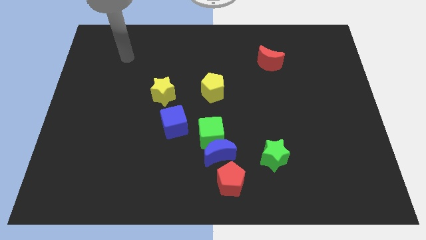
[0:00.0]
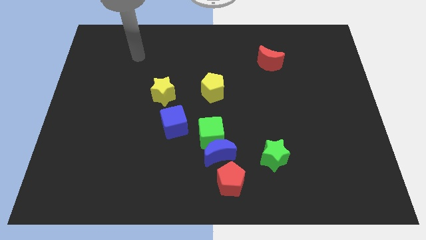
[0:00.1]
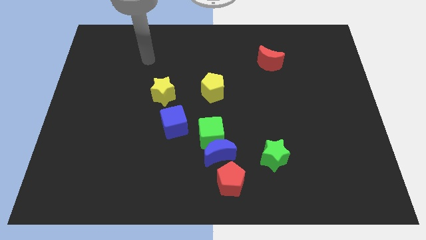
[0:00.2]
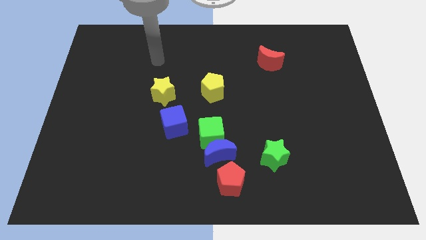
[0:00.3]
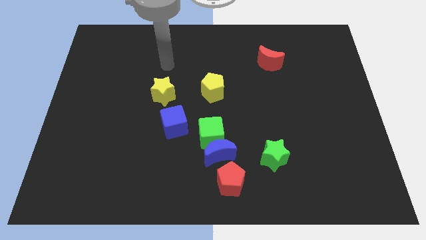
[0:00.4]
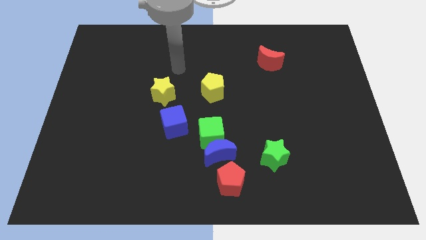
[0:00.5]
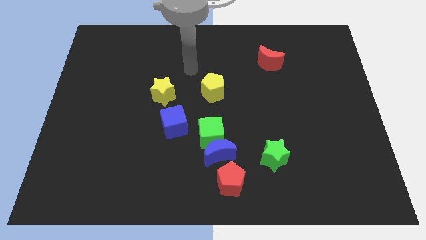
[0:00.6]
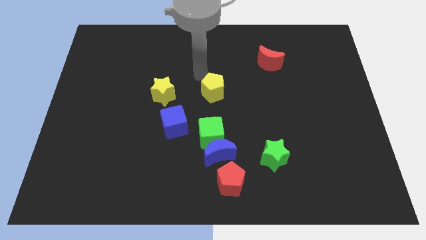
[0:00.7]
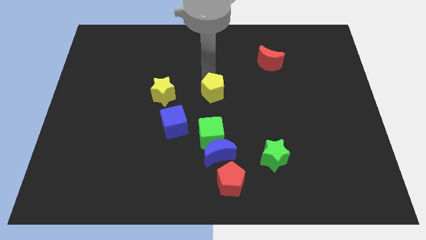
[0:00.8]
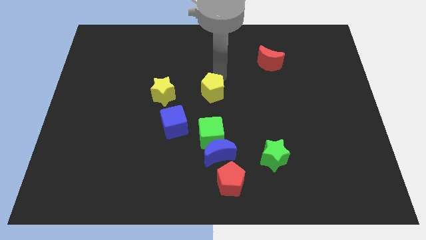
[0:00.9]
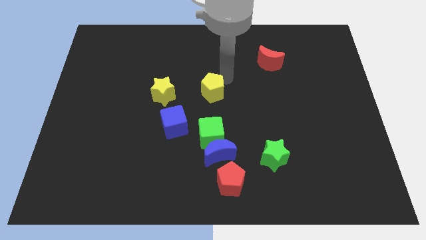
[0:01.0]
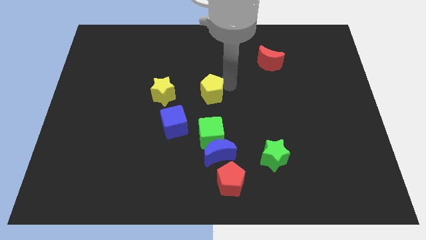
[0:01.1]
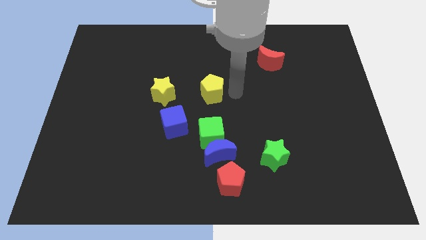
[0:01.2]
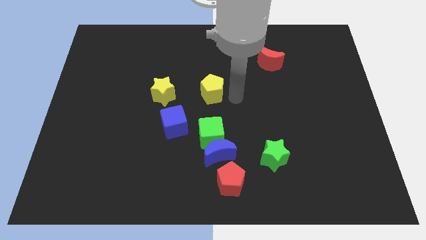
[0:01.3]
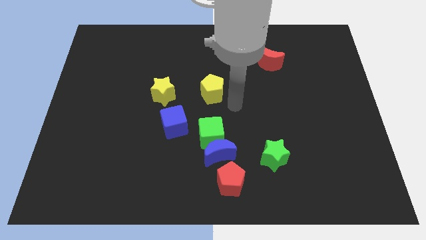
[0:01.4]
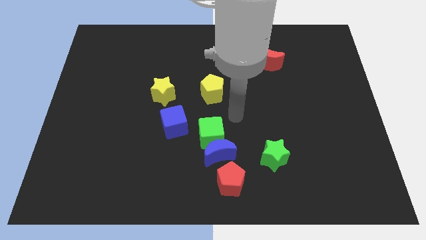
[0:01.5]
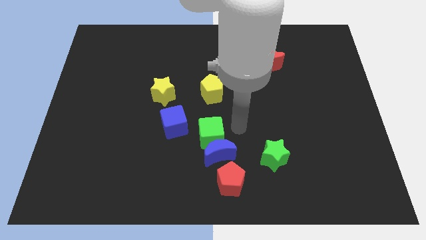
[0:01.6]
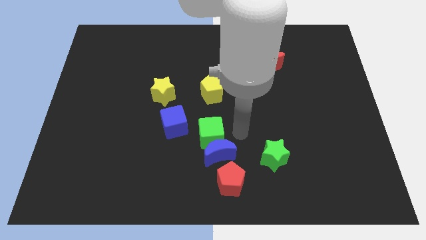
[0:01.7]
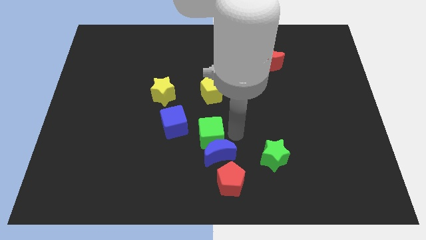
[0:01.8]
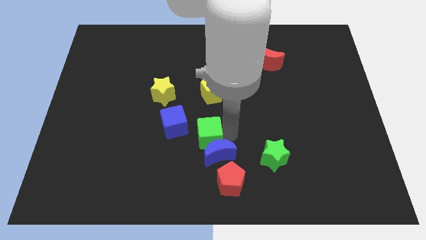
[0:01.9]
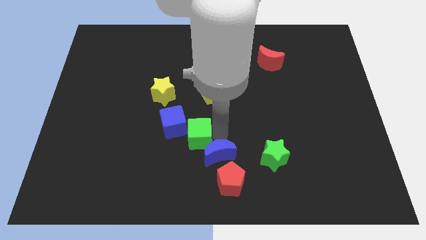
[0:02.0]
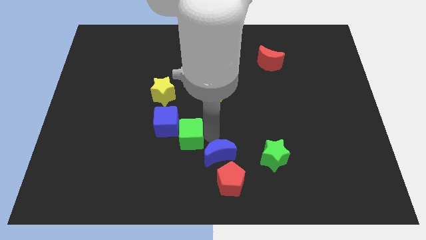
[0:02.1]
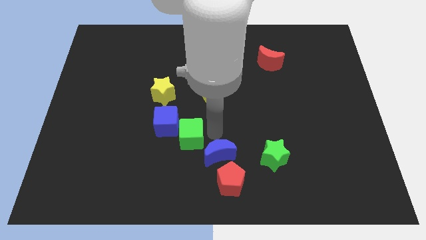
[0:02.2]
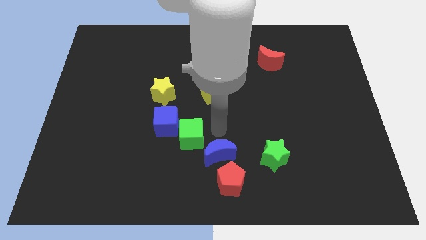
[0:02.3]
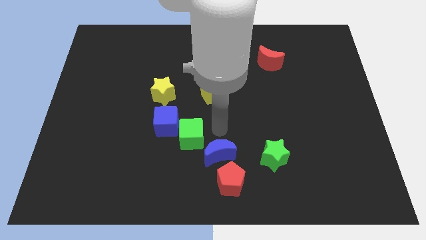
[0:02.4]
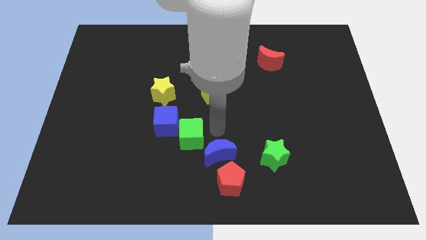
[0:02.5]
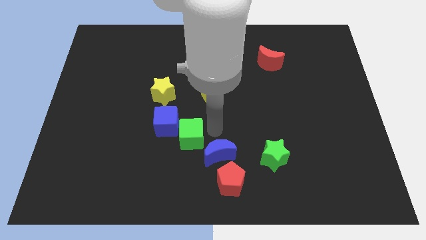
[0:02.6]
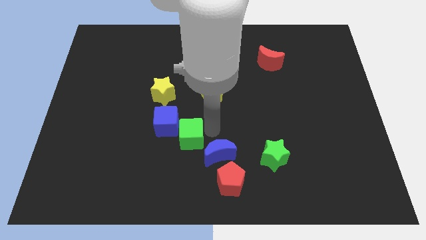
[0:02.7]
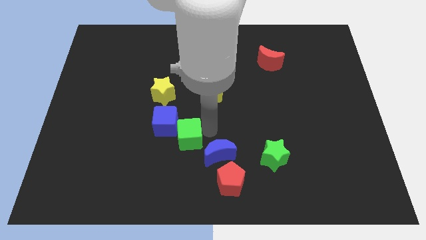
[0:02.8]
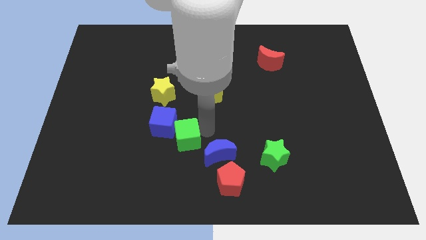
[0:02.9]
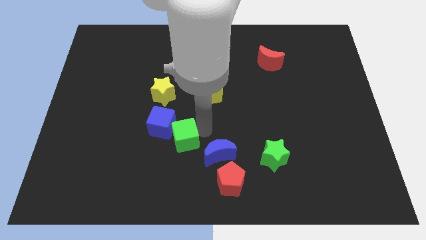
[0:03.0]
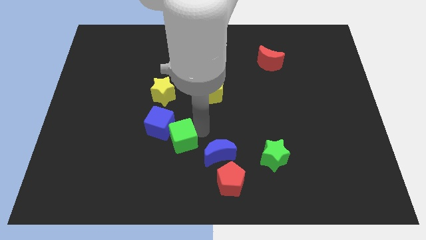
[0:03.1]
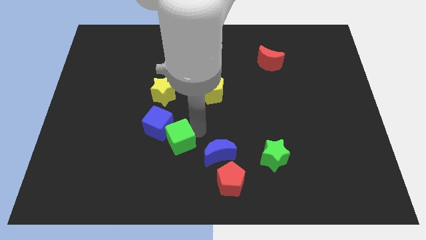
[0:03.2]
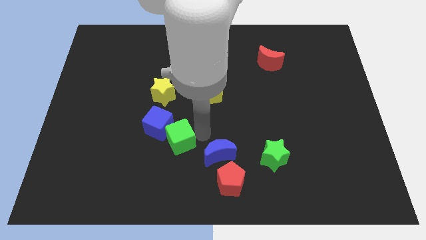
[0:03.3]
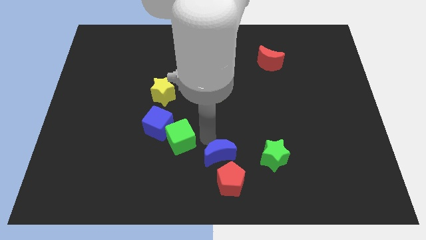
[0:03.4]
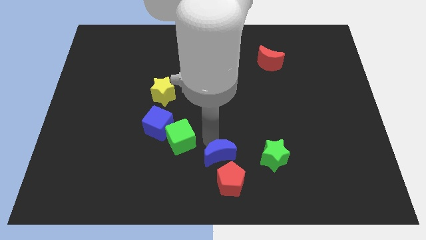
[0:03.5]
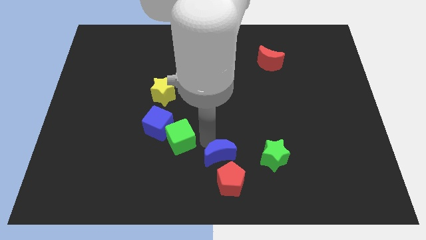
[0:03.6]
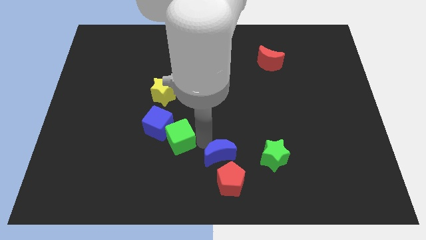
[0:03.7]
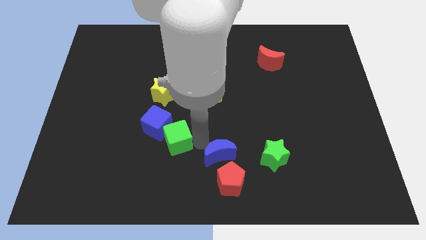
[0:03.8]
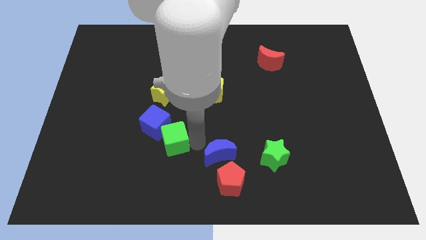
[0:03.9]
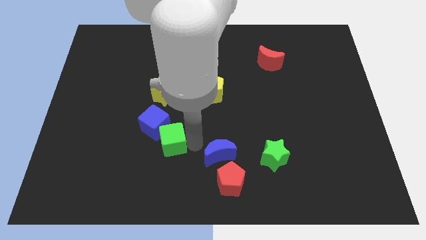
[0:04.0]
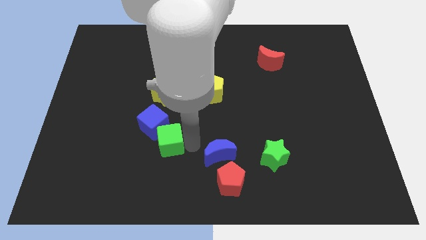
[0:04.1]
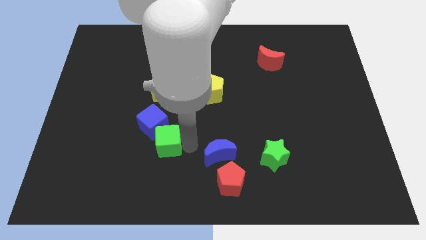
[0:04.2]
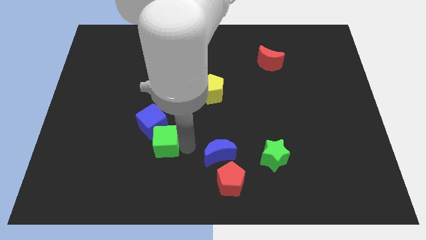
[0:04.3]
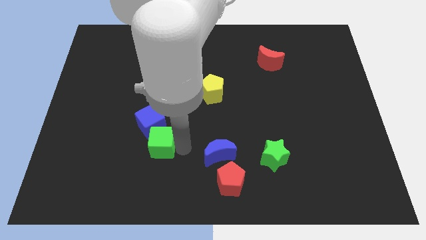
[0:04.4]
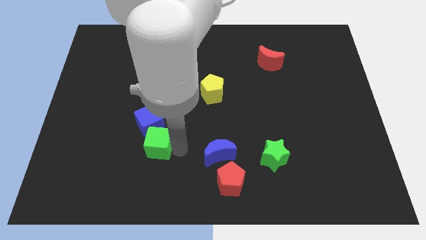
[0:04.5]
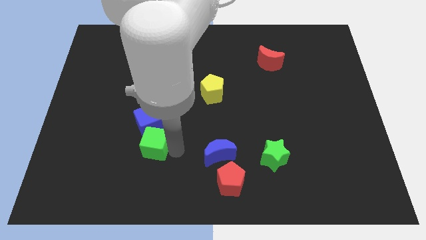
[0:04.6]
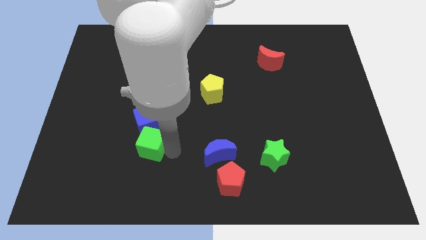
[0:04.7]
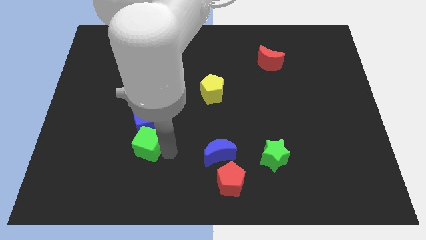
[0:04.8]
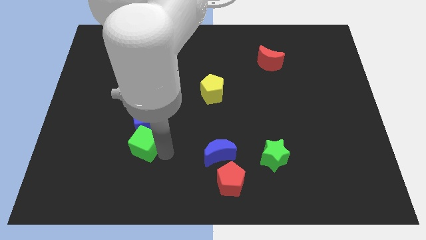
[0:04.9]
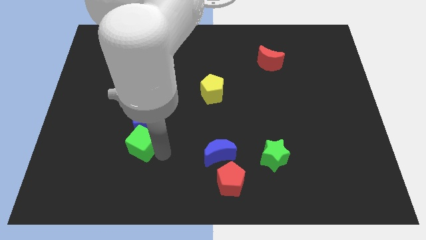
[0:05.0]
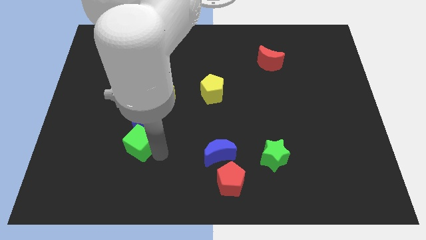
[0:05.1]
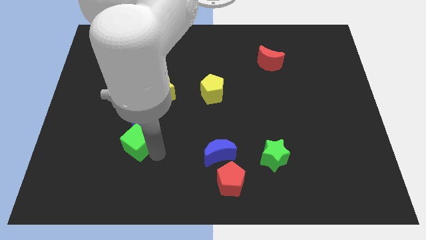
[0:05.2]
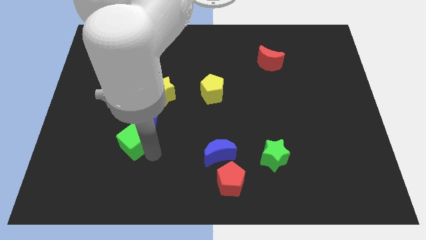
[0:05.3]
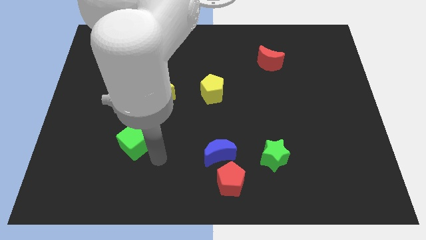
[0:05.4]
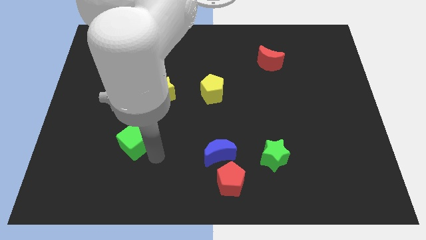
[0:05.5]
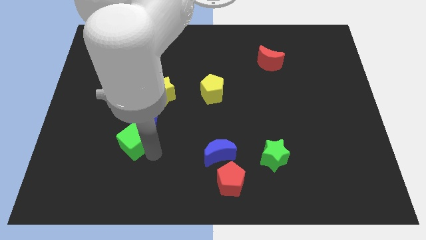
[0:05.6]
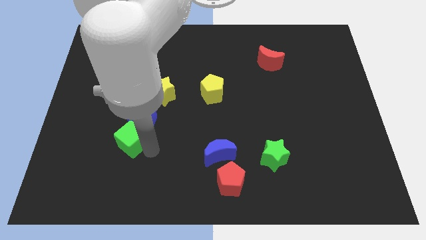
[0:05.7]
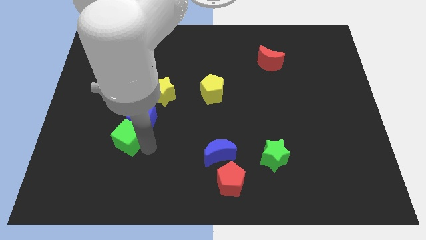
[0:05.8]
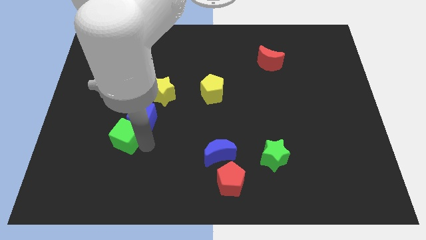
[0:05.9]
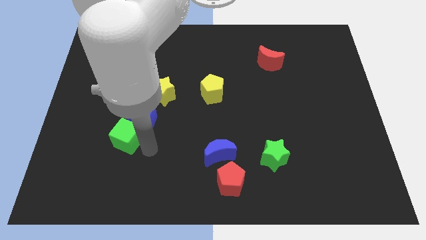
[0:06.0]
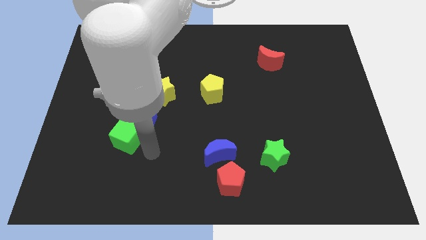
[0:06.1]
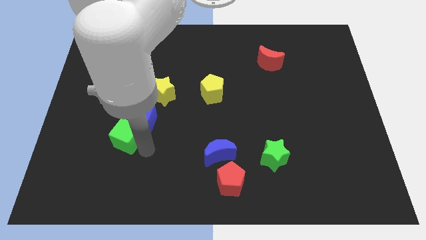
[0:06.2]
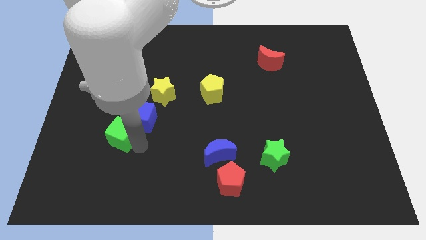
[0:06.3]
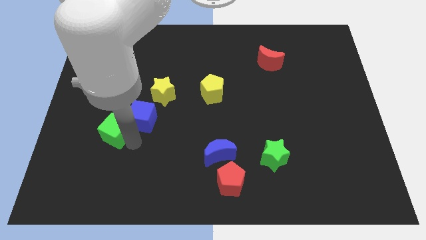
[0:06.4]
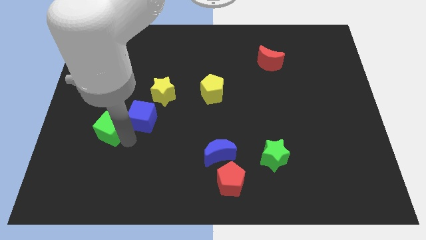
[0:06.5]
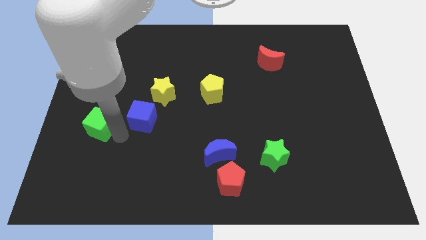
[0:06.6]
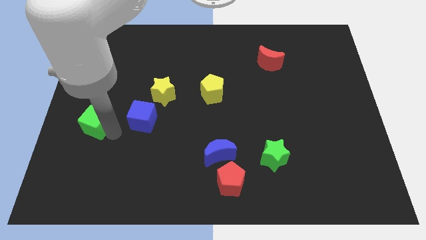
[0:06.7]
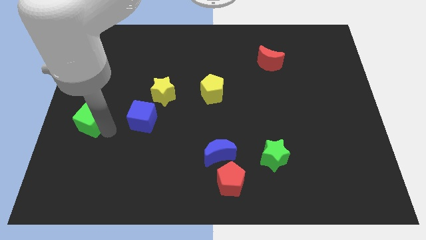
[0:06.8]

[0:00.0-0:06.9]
slide the green cube to the left side
